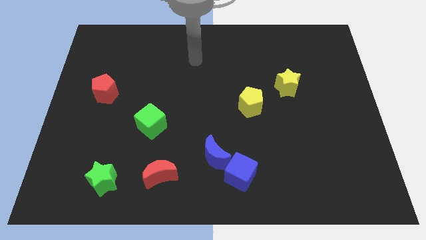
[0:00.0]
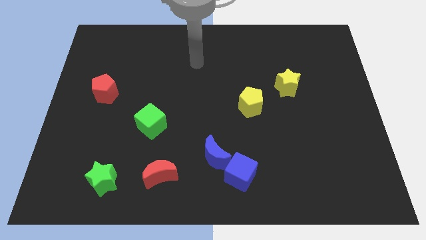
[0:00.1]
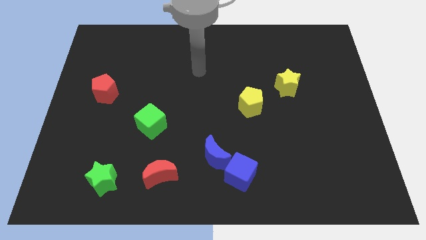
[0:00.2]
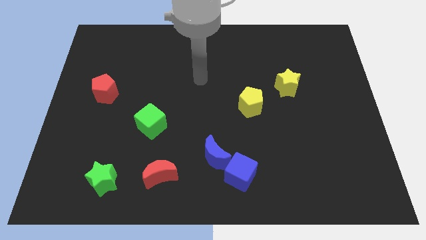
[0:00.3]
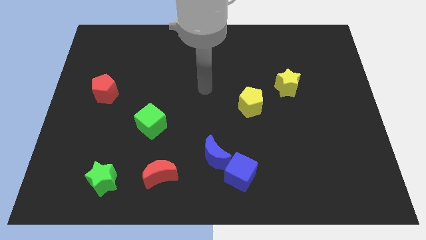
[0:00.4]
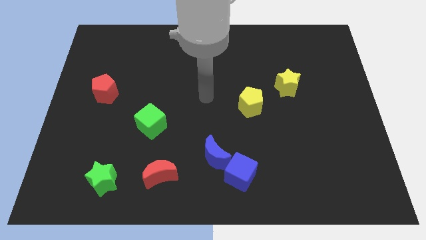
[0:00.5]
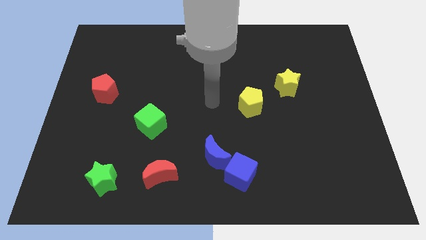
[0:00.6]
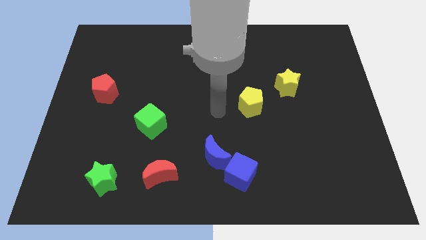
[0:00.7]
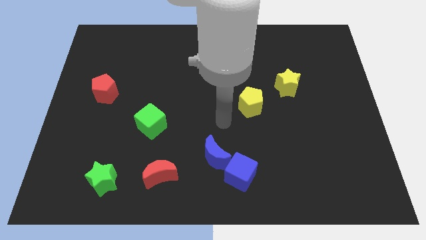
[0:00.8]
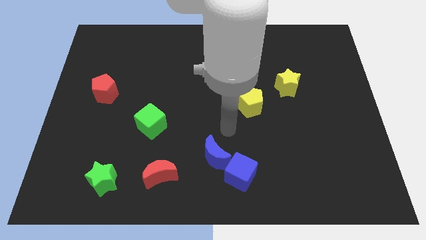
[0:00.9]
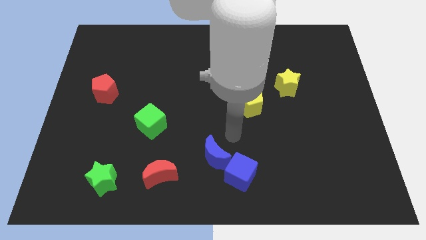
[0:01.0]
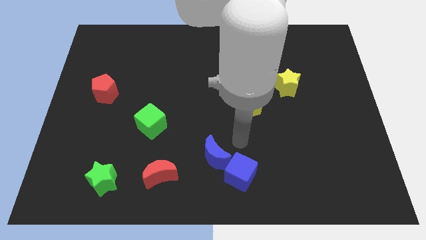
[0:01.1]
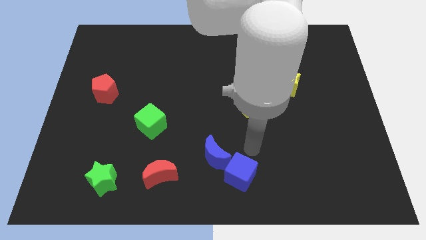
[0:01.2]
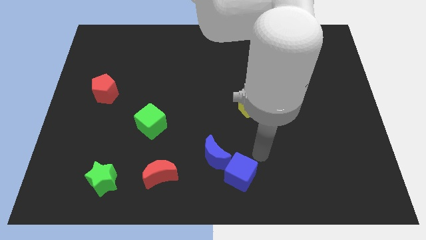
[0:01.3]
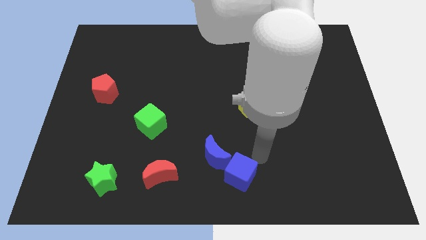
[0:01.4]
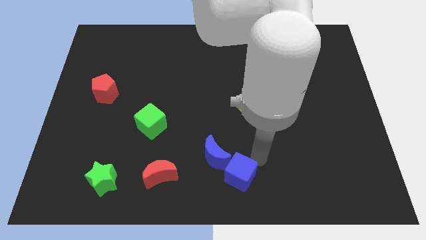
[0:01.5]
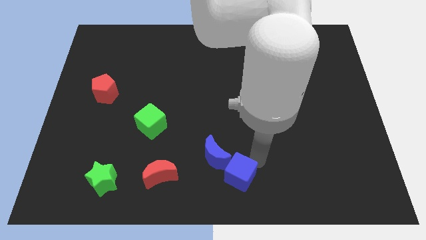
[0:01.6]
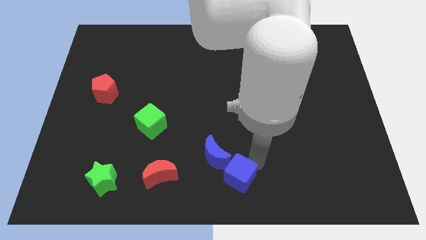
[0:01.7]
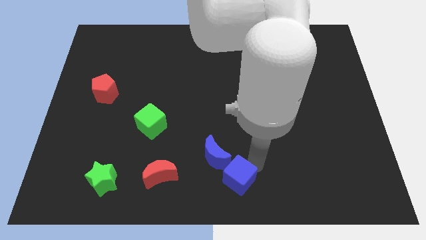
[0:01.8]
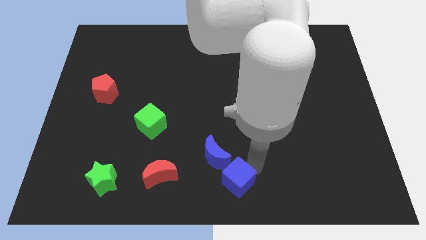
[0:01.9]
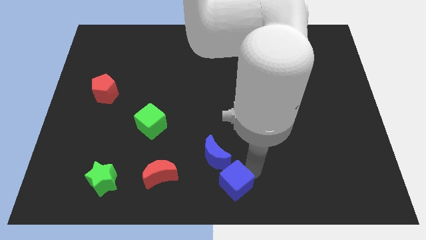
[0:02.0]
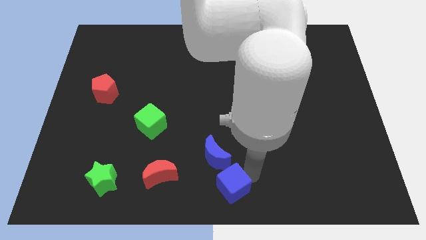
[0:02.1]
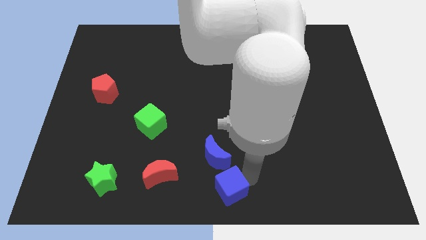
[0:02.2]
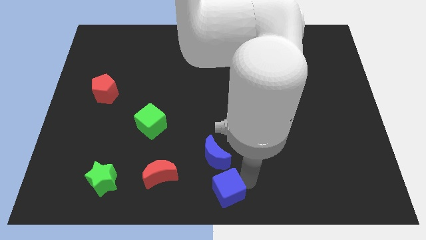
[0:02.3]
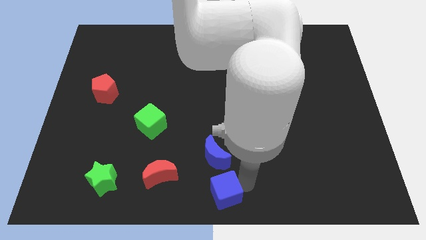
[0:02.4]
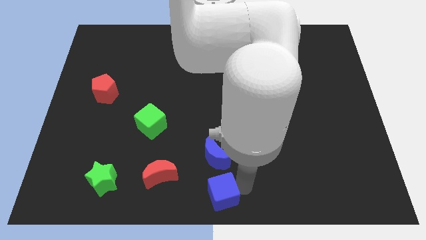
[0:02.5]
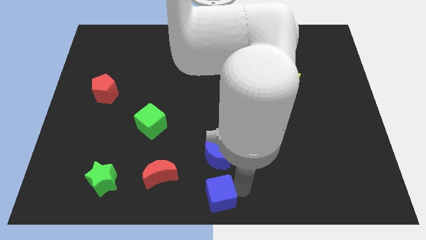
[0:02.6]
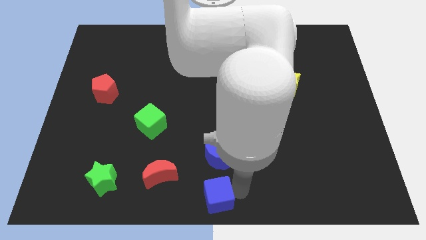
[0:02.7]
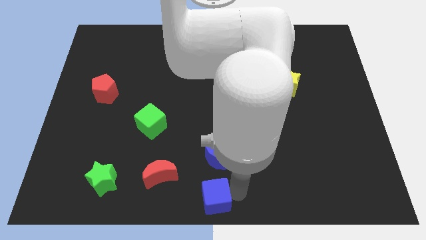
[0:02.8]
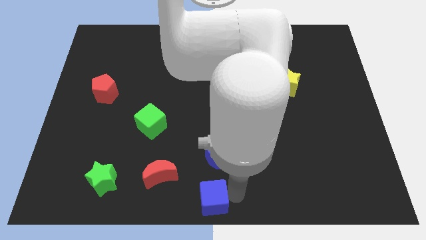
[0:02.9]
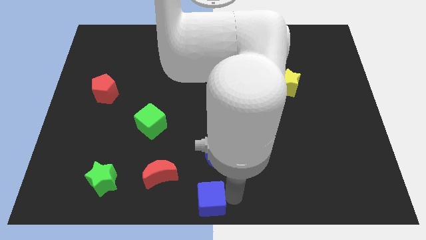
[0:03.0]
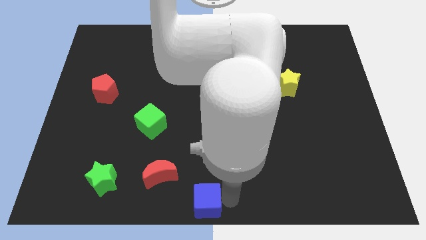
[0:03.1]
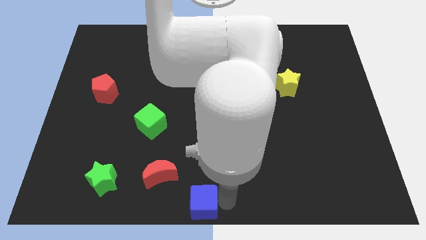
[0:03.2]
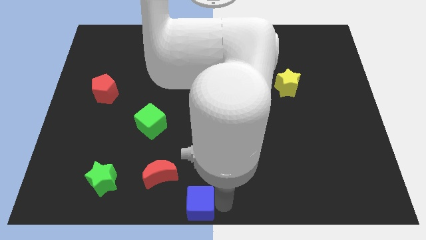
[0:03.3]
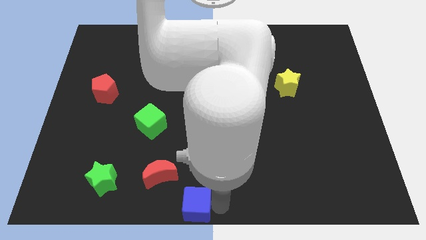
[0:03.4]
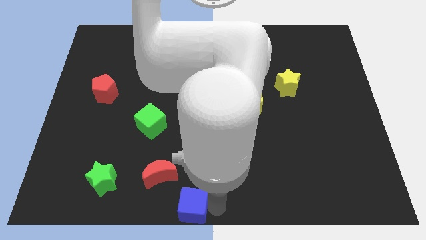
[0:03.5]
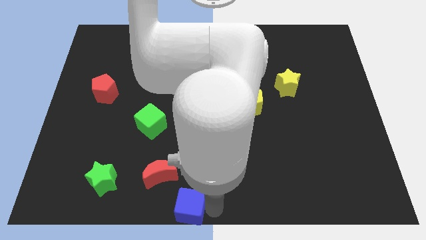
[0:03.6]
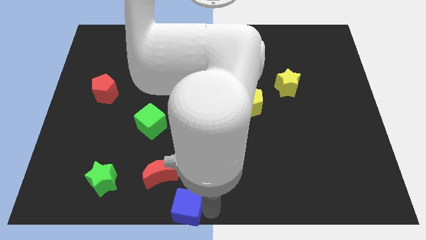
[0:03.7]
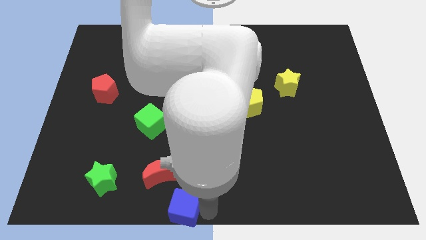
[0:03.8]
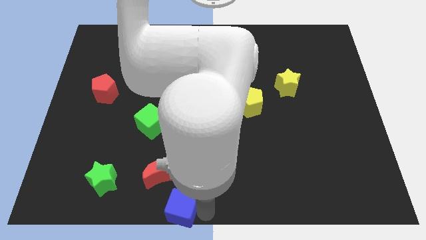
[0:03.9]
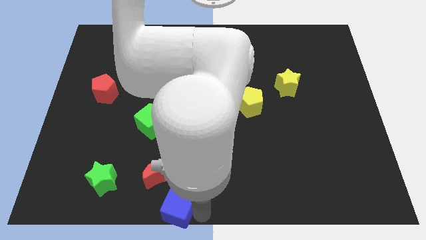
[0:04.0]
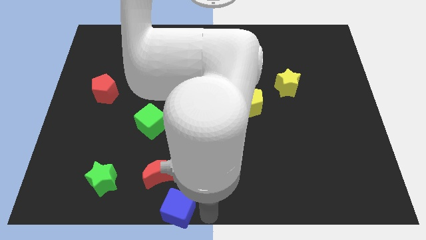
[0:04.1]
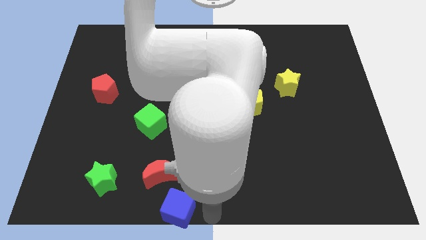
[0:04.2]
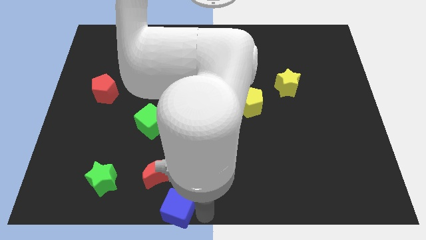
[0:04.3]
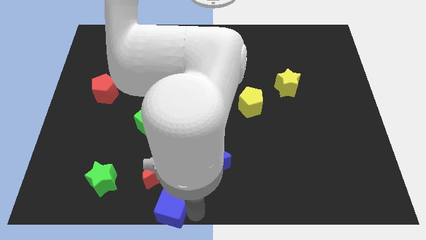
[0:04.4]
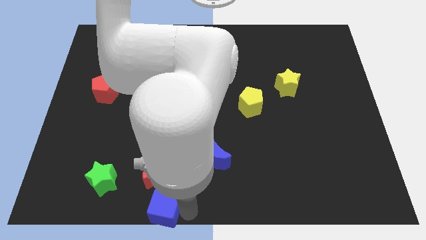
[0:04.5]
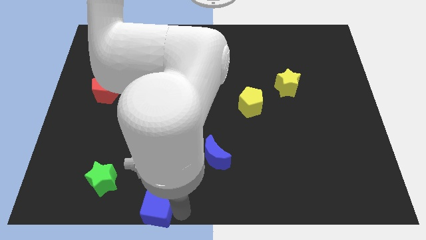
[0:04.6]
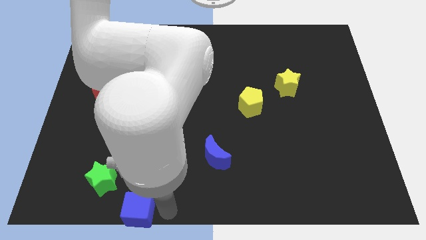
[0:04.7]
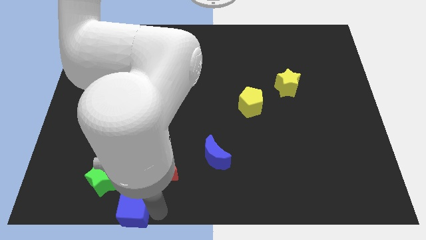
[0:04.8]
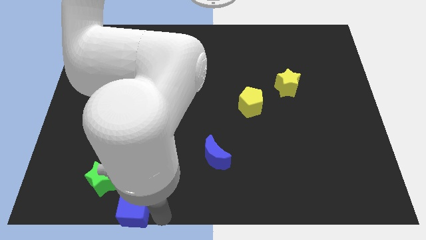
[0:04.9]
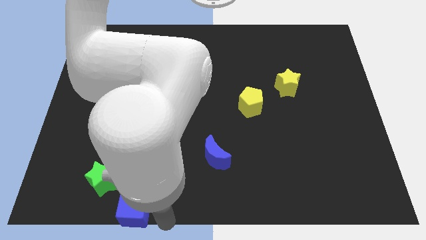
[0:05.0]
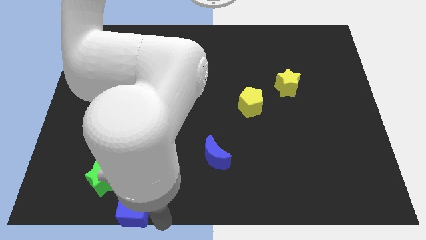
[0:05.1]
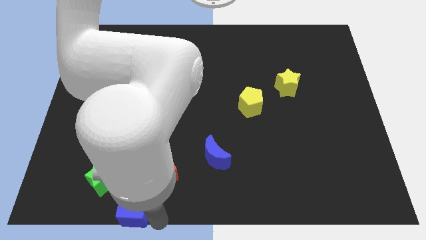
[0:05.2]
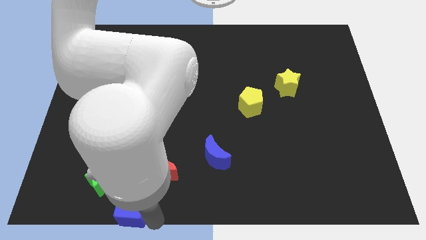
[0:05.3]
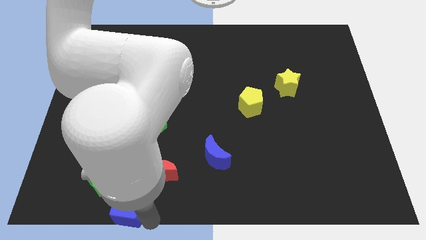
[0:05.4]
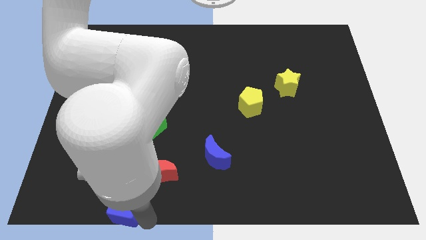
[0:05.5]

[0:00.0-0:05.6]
slide the blue cube to the left

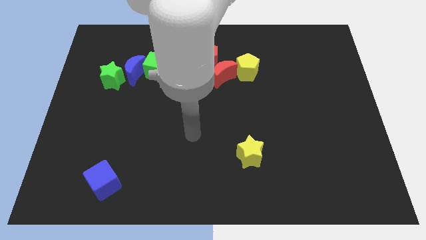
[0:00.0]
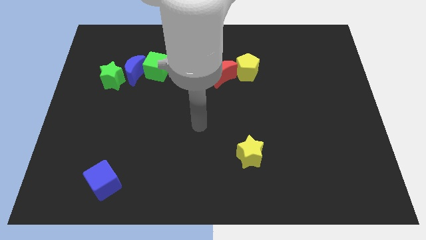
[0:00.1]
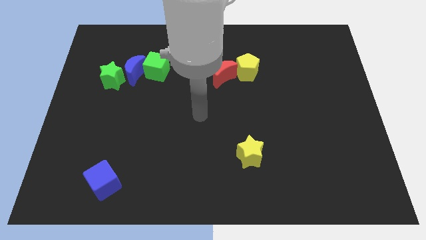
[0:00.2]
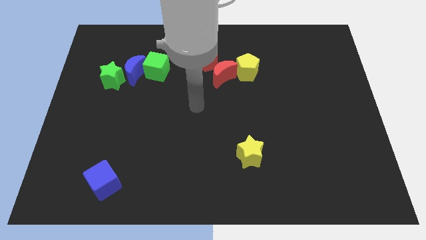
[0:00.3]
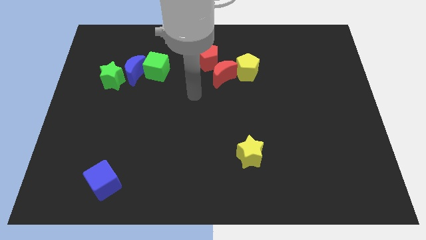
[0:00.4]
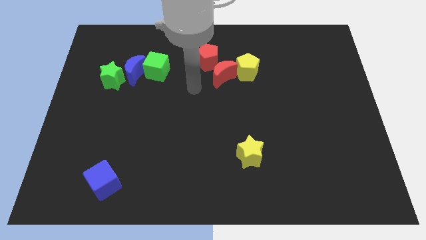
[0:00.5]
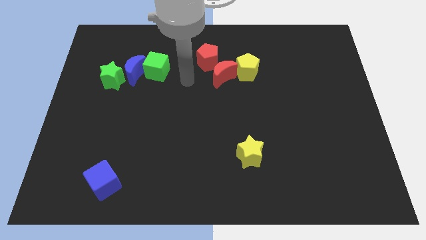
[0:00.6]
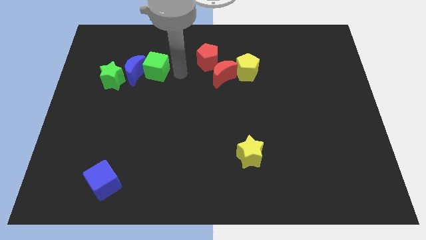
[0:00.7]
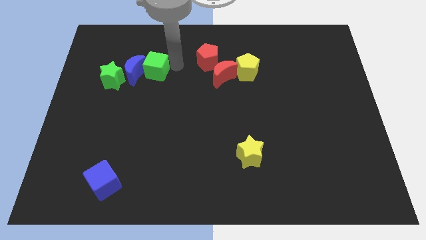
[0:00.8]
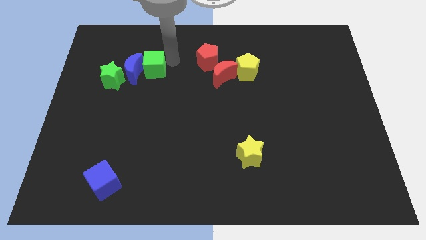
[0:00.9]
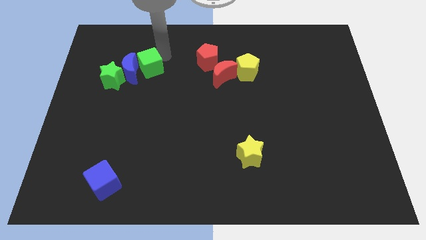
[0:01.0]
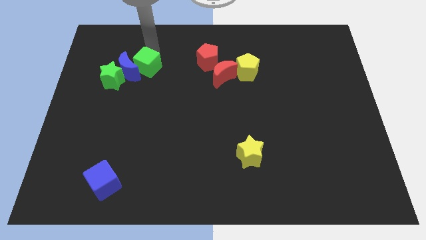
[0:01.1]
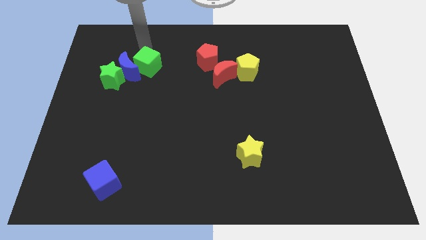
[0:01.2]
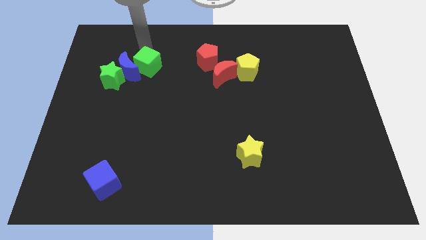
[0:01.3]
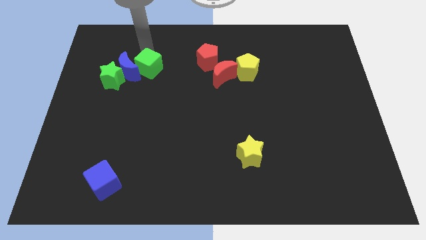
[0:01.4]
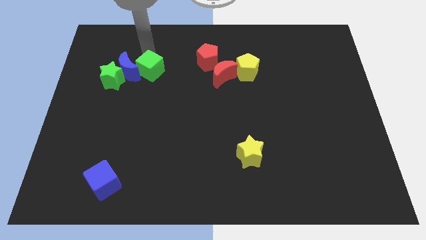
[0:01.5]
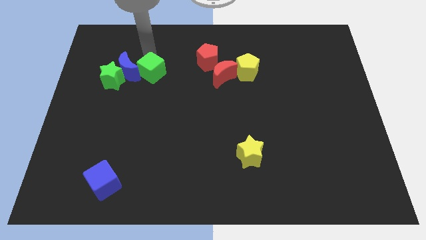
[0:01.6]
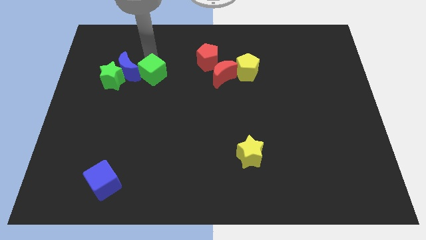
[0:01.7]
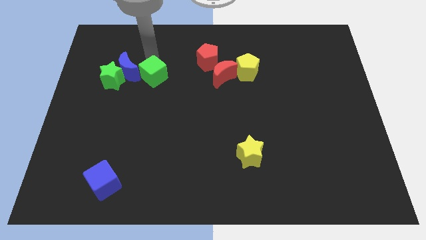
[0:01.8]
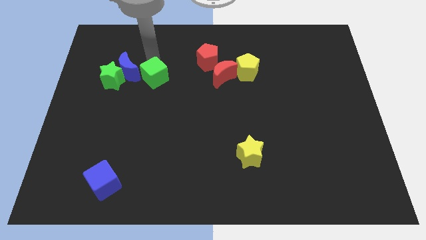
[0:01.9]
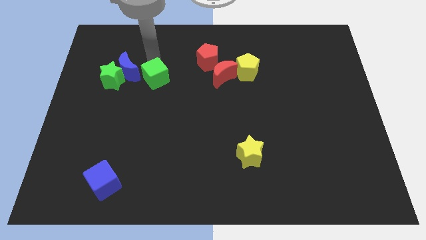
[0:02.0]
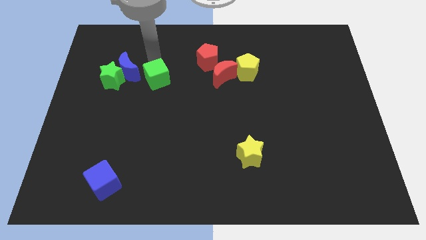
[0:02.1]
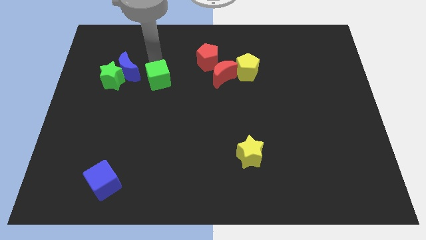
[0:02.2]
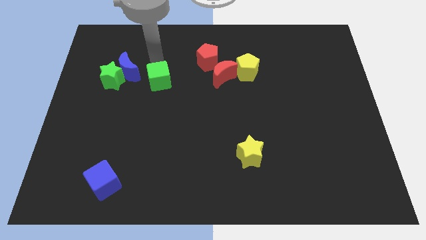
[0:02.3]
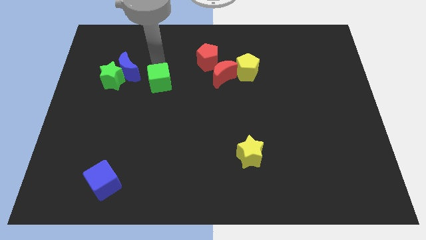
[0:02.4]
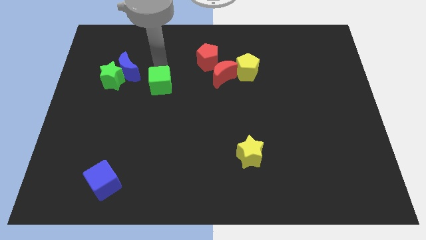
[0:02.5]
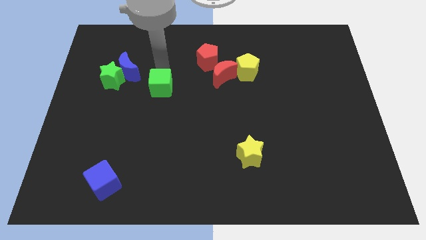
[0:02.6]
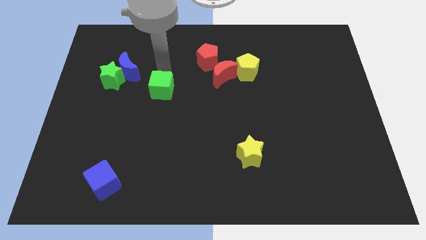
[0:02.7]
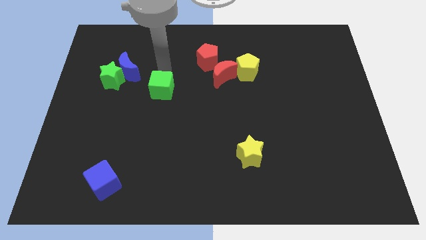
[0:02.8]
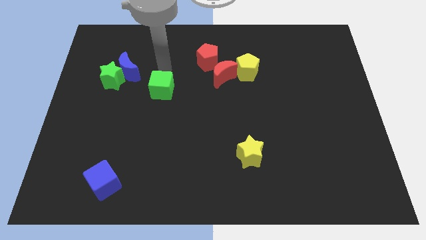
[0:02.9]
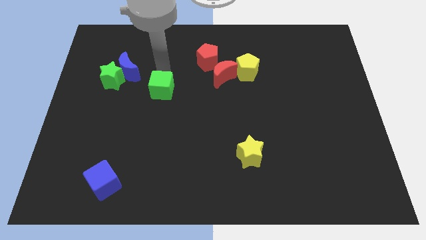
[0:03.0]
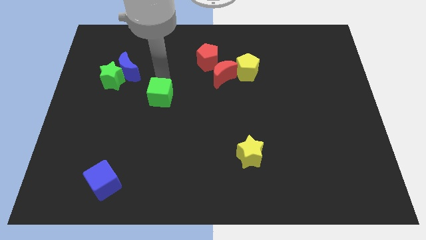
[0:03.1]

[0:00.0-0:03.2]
move the green cube slightly downwards
